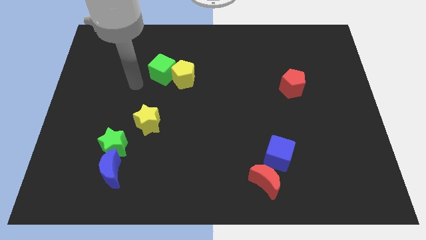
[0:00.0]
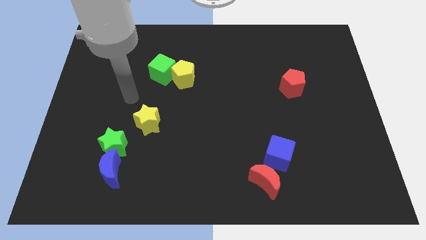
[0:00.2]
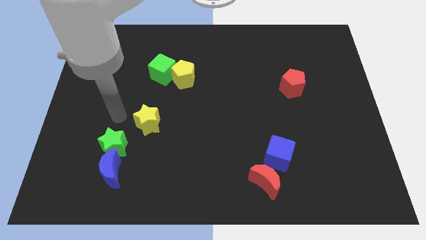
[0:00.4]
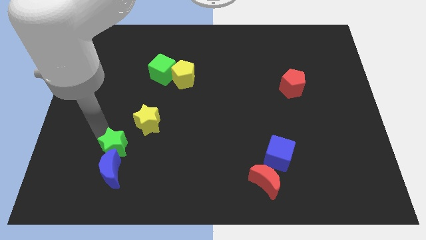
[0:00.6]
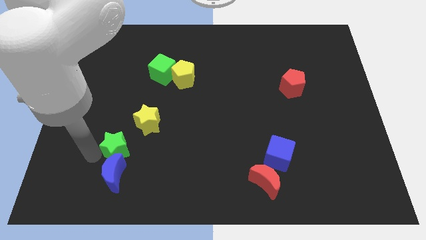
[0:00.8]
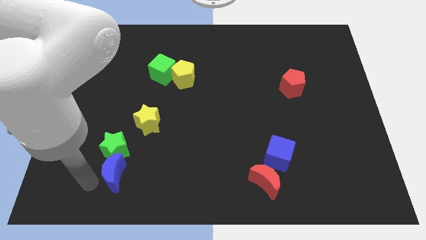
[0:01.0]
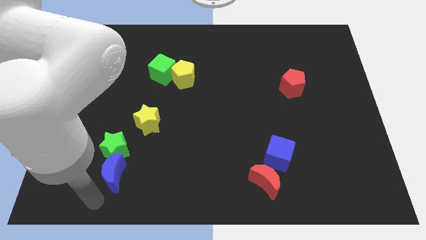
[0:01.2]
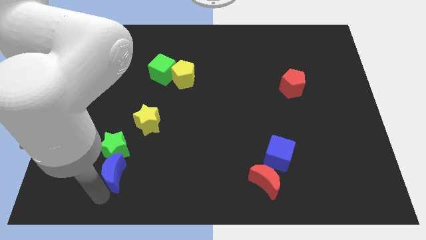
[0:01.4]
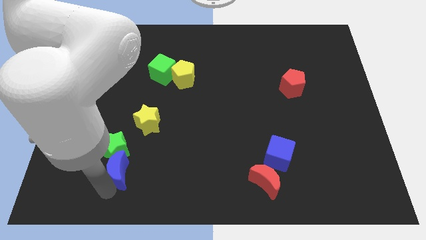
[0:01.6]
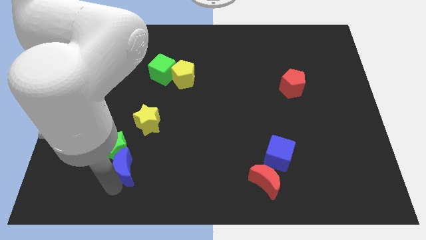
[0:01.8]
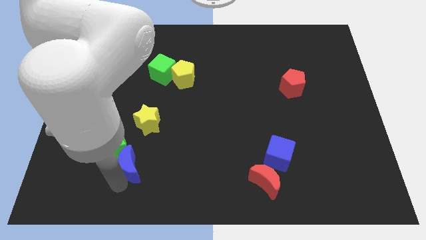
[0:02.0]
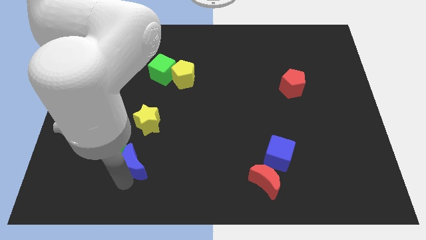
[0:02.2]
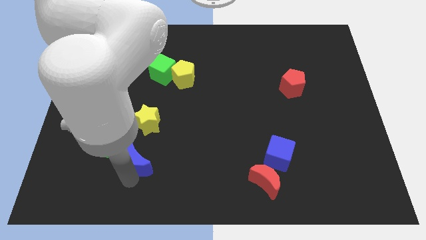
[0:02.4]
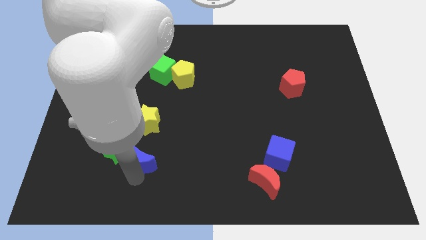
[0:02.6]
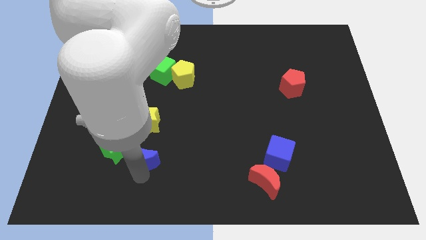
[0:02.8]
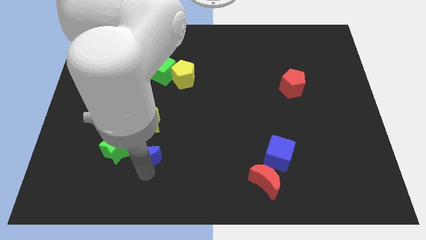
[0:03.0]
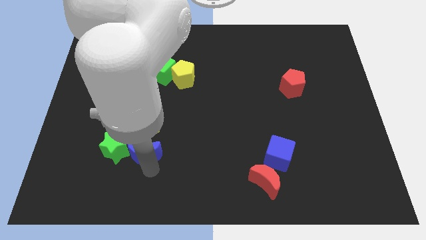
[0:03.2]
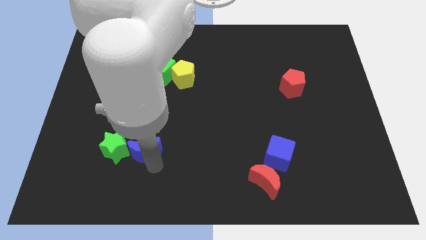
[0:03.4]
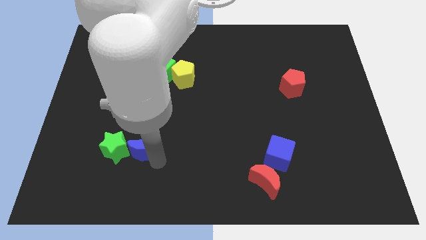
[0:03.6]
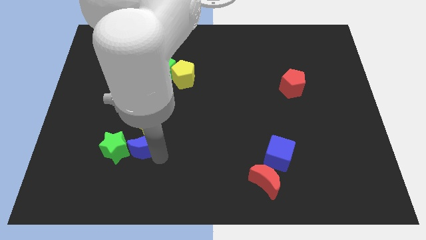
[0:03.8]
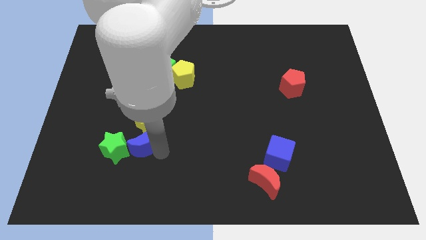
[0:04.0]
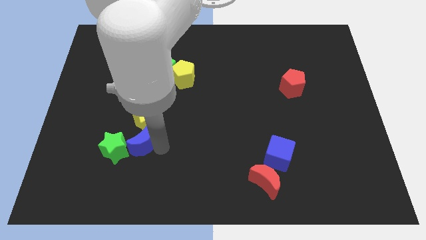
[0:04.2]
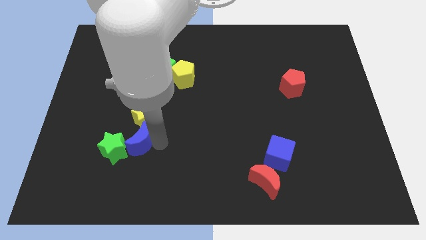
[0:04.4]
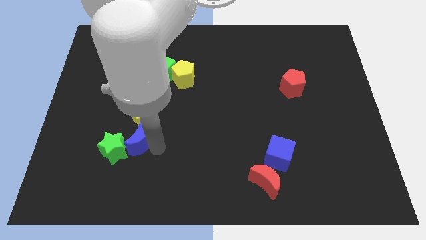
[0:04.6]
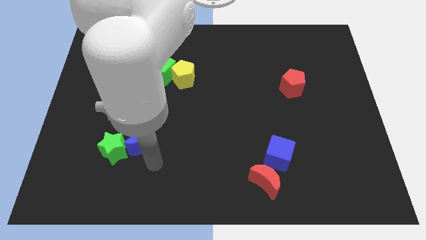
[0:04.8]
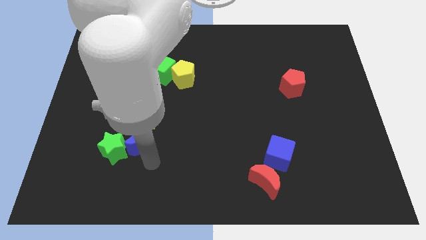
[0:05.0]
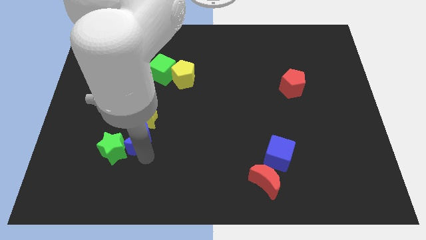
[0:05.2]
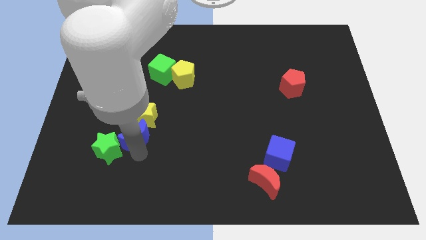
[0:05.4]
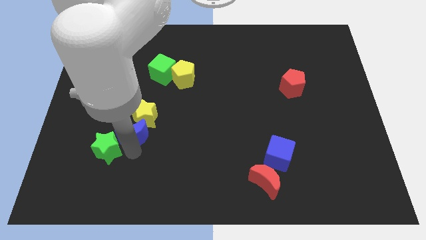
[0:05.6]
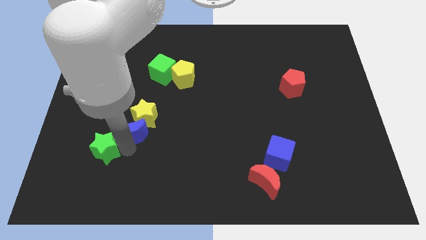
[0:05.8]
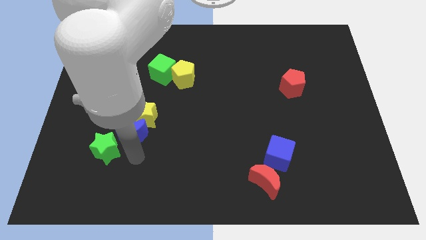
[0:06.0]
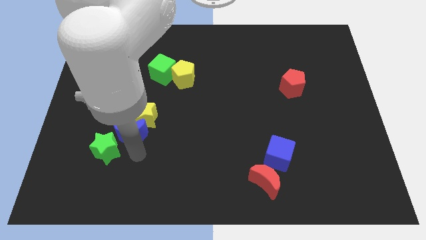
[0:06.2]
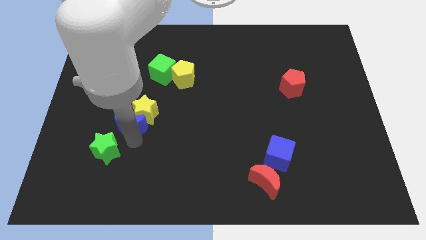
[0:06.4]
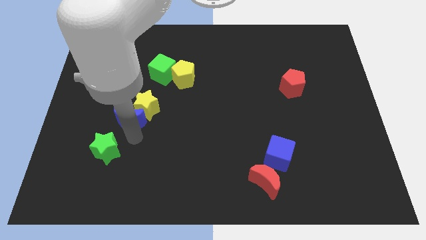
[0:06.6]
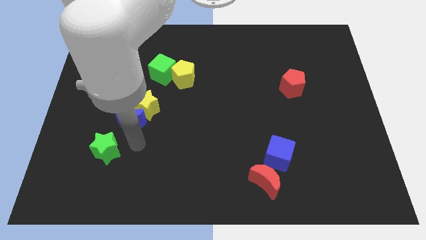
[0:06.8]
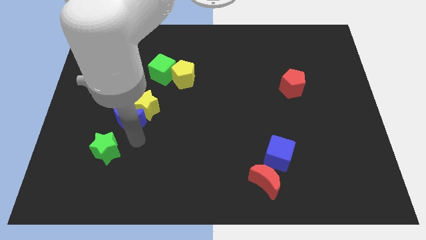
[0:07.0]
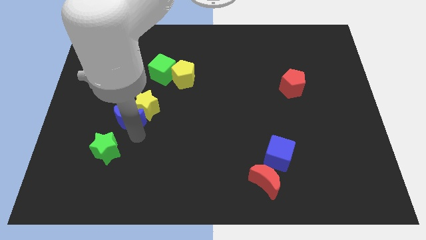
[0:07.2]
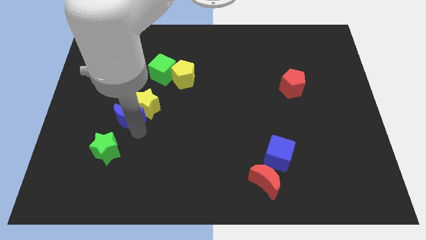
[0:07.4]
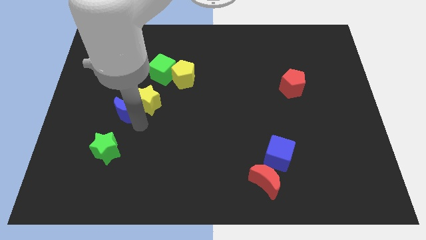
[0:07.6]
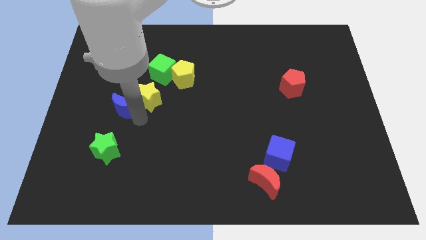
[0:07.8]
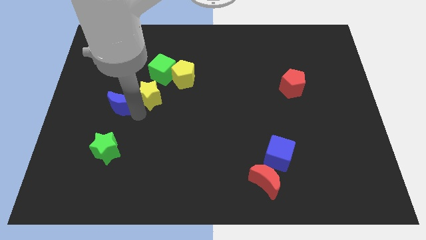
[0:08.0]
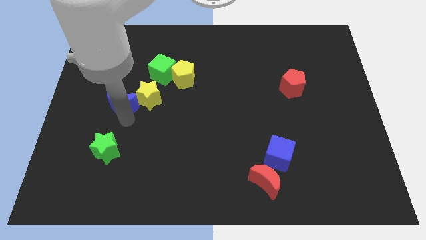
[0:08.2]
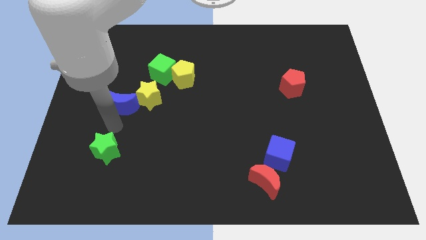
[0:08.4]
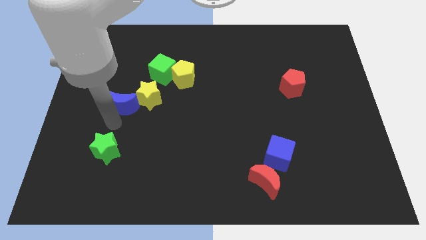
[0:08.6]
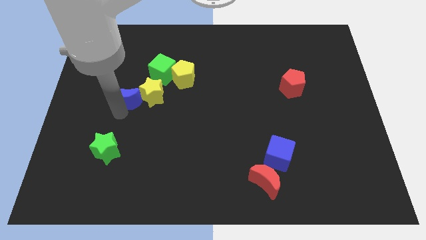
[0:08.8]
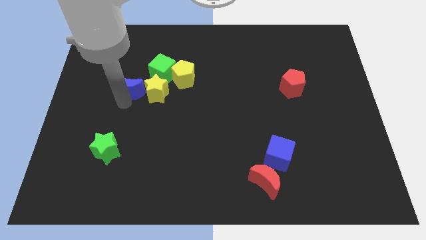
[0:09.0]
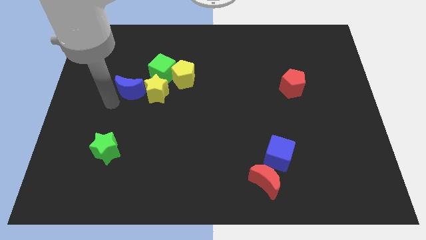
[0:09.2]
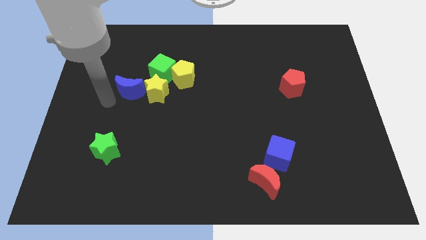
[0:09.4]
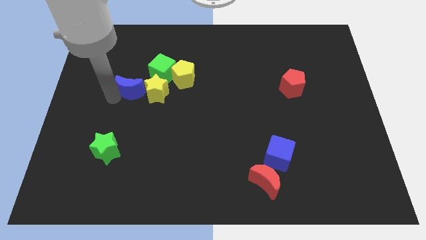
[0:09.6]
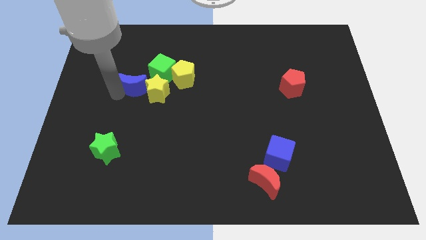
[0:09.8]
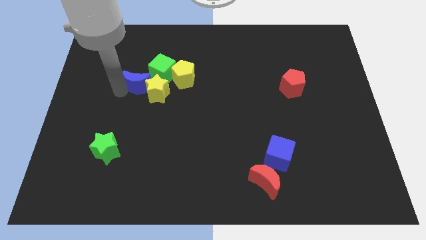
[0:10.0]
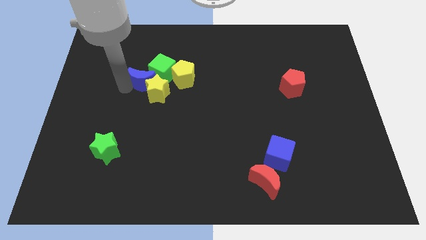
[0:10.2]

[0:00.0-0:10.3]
move the blue moon towards the green cube

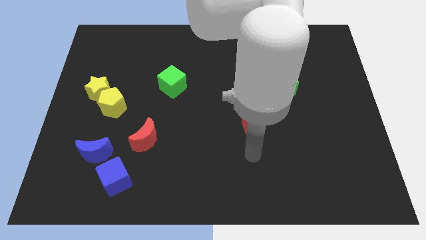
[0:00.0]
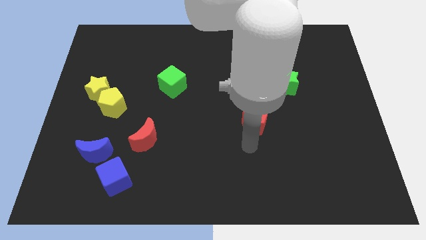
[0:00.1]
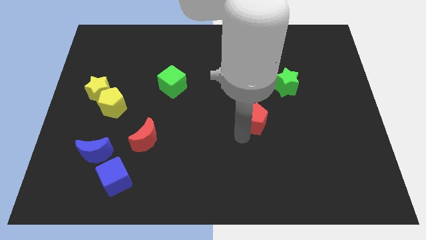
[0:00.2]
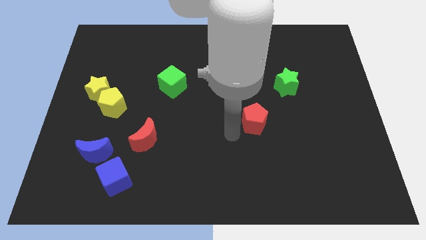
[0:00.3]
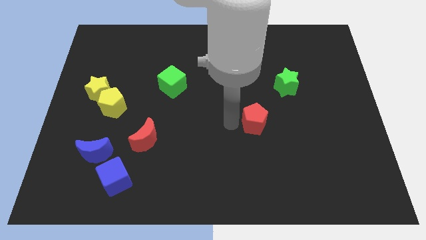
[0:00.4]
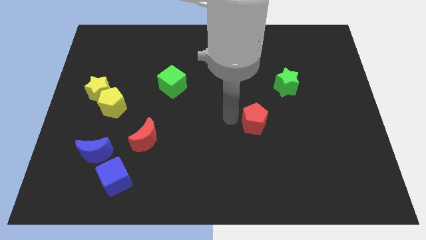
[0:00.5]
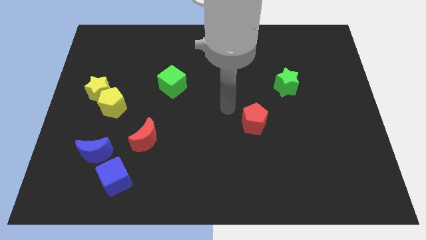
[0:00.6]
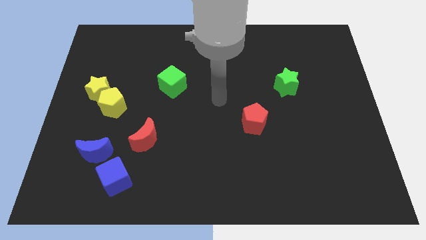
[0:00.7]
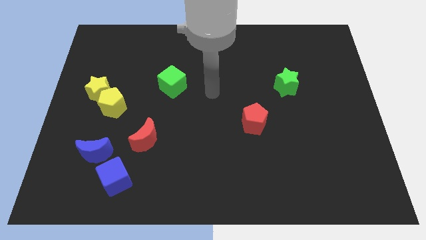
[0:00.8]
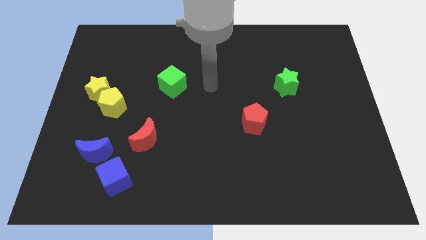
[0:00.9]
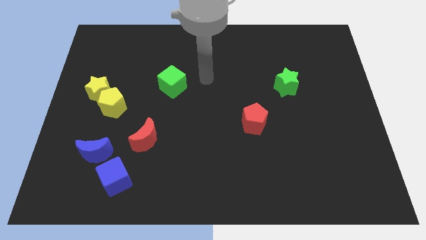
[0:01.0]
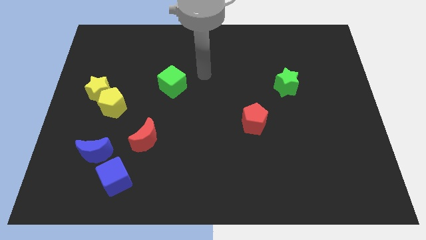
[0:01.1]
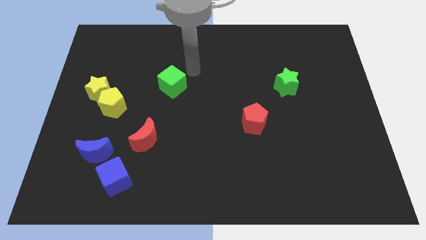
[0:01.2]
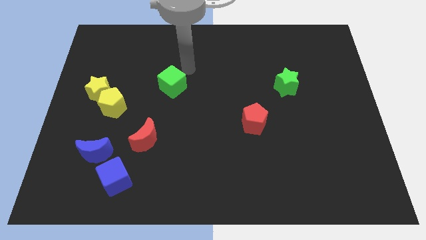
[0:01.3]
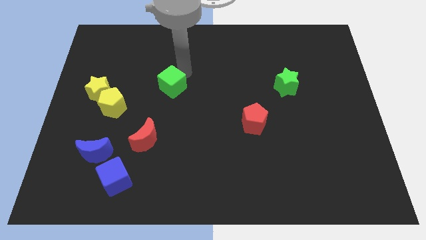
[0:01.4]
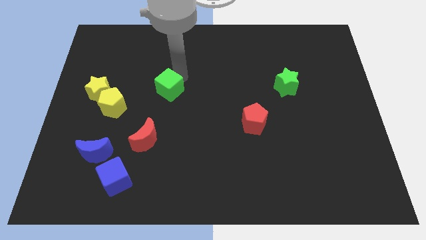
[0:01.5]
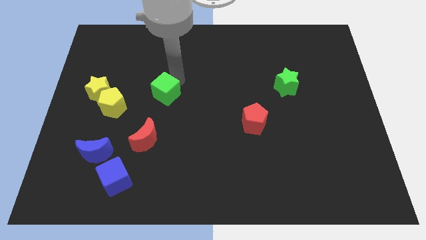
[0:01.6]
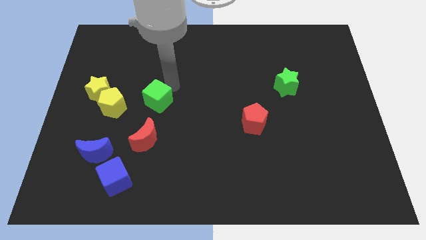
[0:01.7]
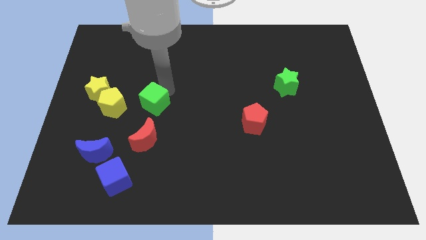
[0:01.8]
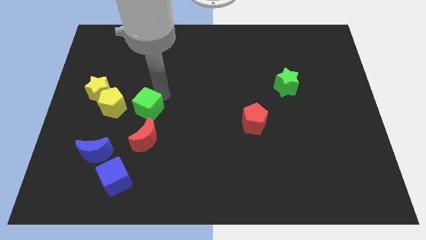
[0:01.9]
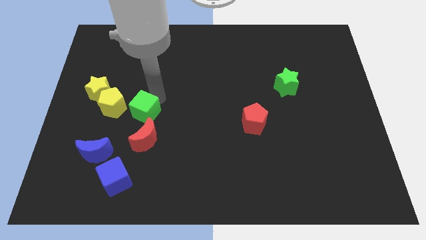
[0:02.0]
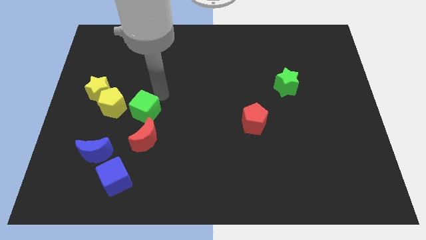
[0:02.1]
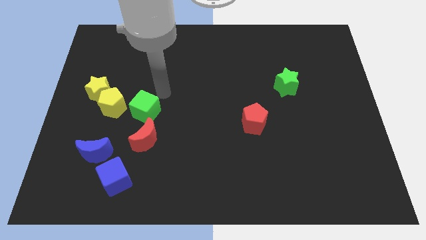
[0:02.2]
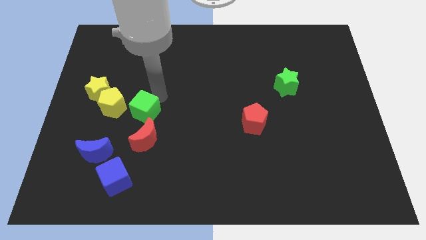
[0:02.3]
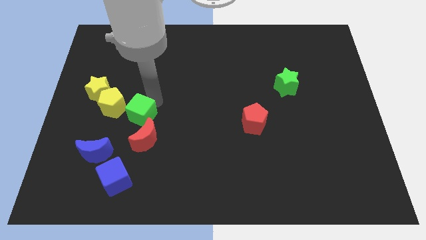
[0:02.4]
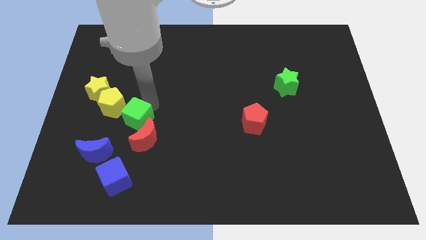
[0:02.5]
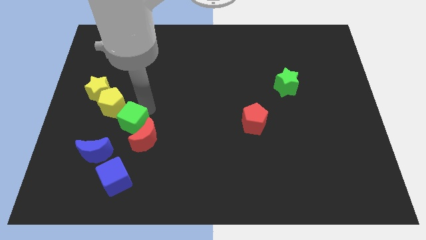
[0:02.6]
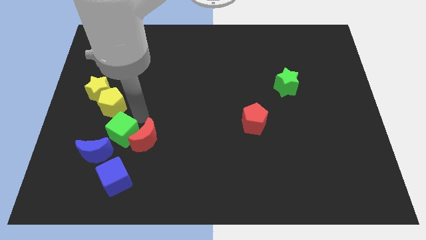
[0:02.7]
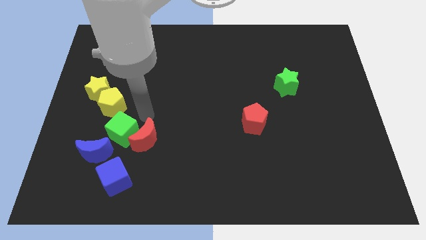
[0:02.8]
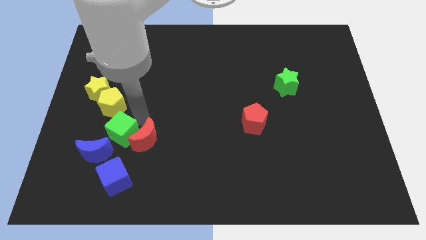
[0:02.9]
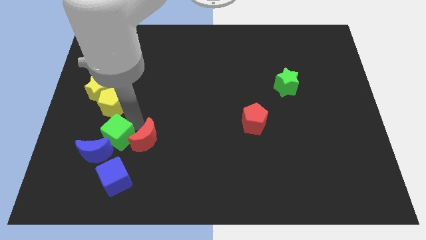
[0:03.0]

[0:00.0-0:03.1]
put the green cube next to the blue moon
